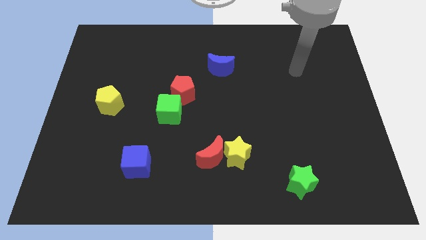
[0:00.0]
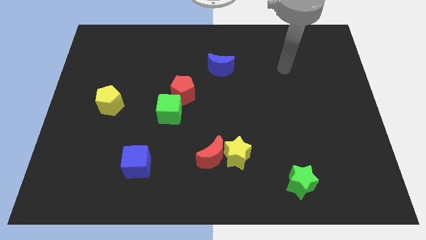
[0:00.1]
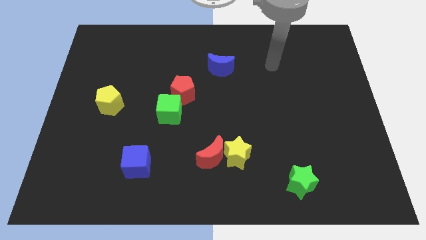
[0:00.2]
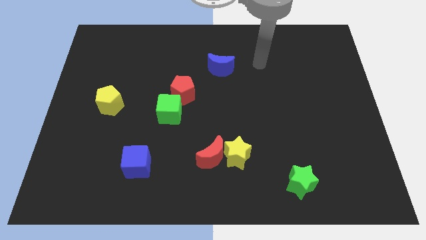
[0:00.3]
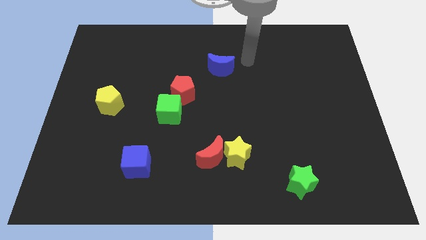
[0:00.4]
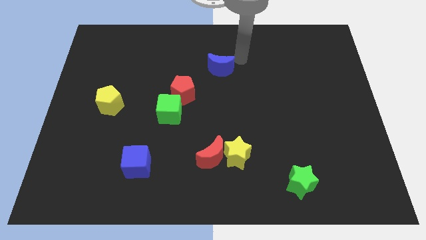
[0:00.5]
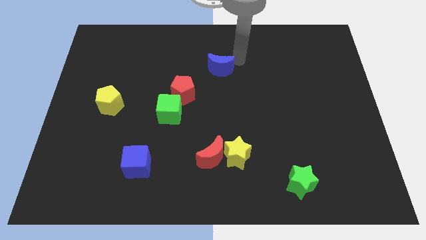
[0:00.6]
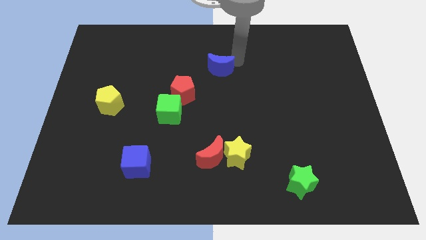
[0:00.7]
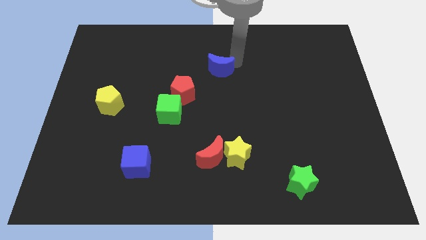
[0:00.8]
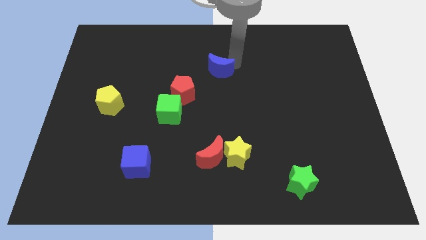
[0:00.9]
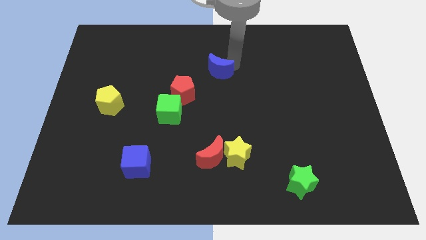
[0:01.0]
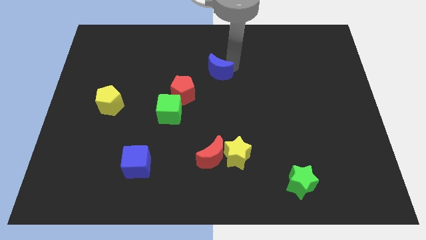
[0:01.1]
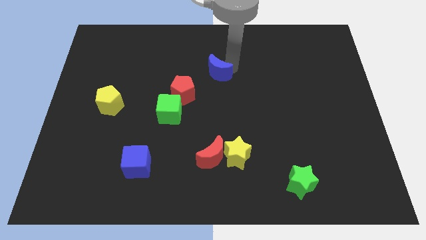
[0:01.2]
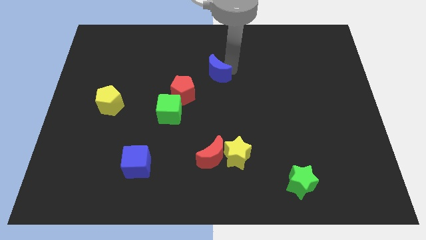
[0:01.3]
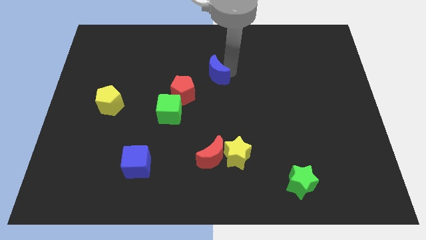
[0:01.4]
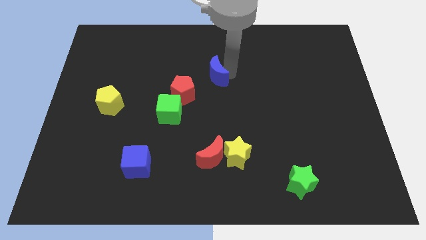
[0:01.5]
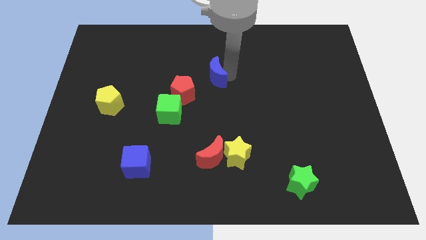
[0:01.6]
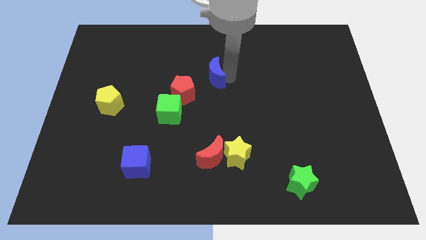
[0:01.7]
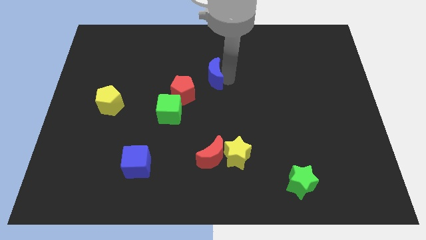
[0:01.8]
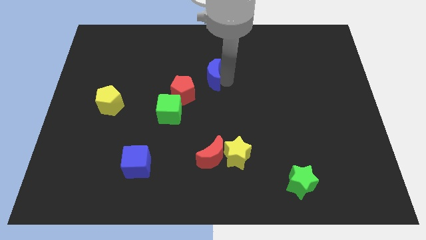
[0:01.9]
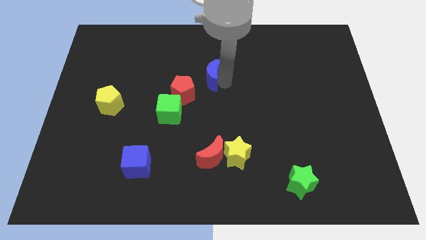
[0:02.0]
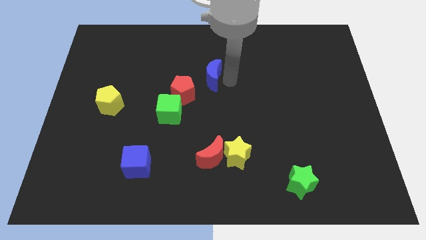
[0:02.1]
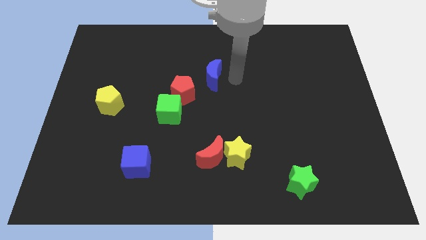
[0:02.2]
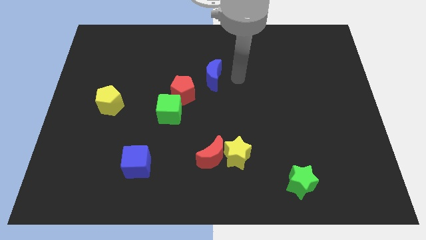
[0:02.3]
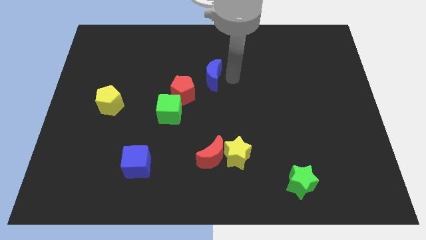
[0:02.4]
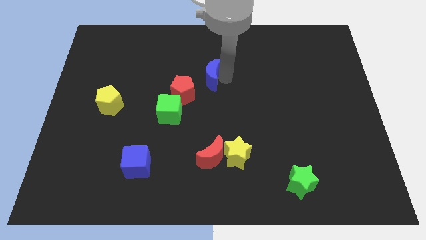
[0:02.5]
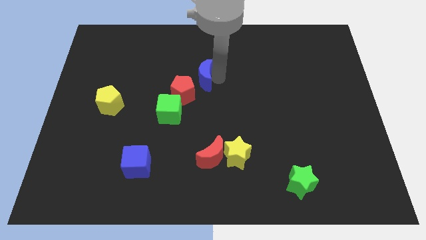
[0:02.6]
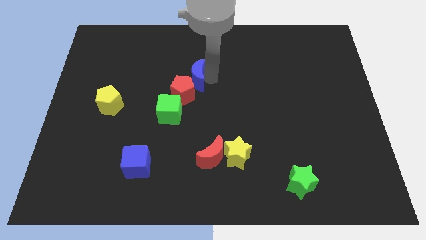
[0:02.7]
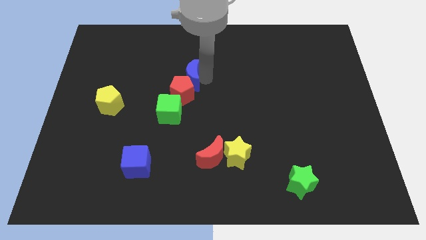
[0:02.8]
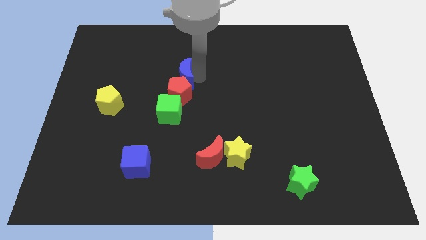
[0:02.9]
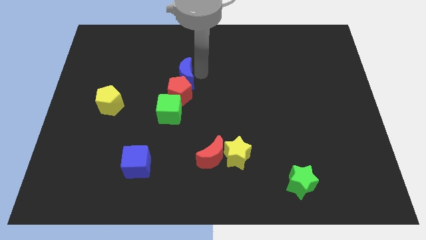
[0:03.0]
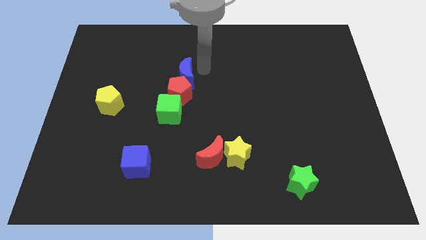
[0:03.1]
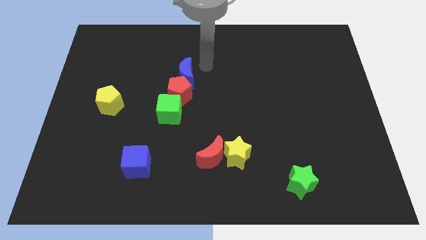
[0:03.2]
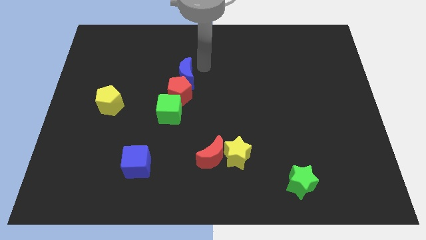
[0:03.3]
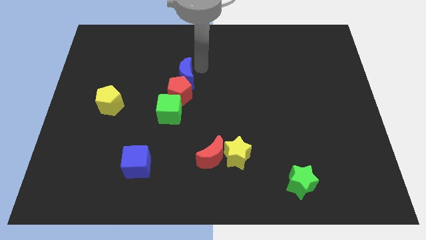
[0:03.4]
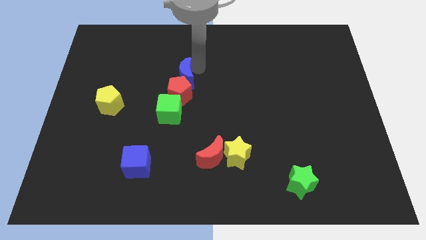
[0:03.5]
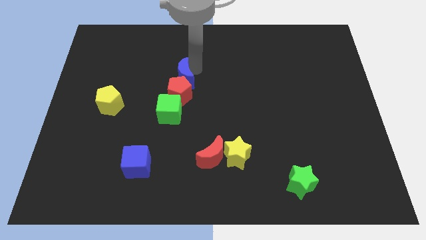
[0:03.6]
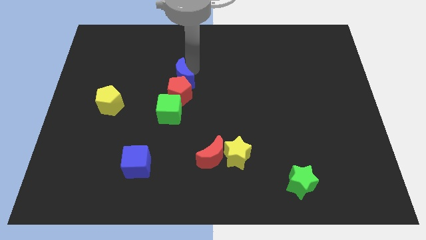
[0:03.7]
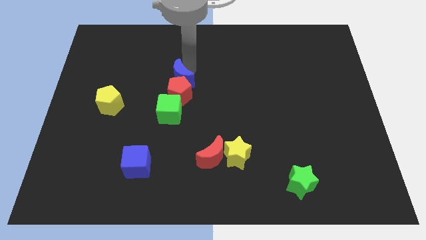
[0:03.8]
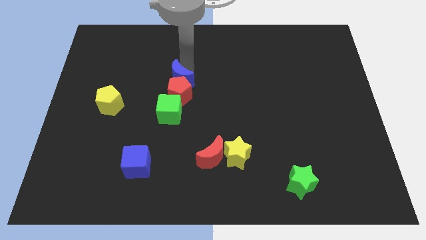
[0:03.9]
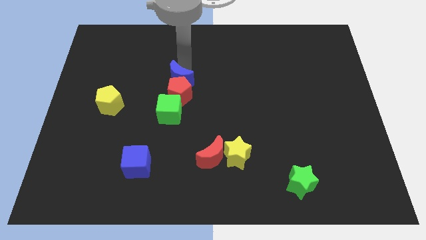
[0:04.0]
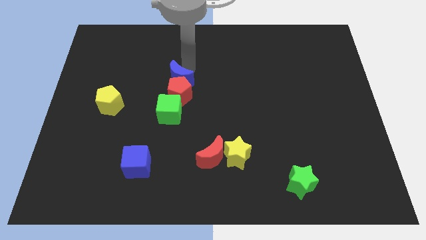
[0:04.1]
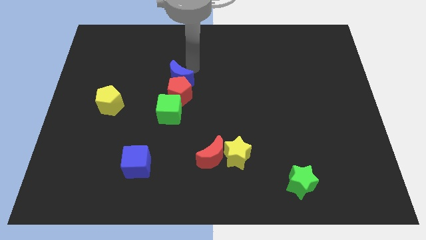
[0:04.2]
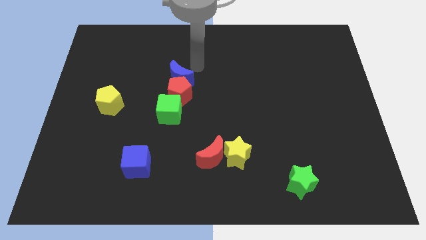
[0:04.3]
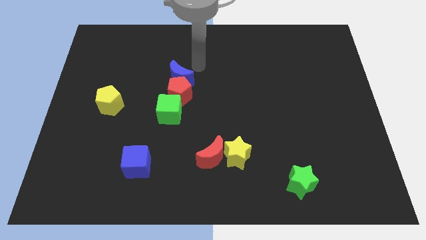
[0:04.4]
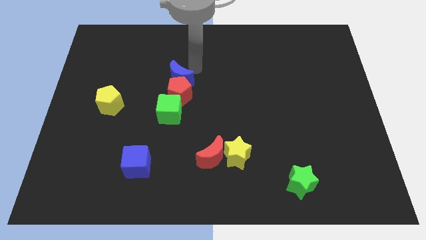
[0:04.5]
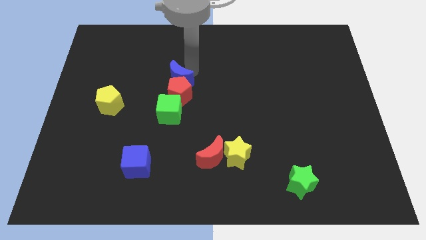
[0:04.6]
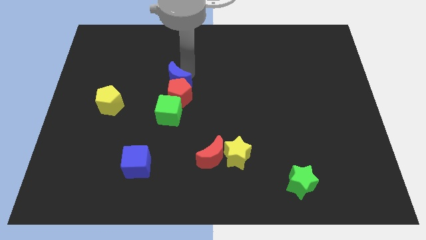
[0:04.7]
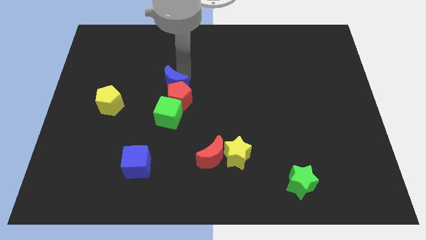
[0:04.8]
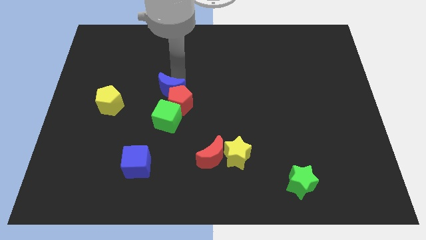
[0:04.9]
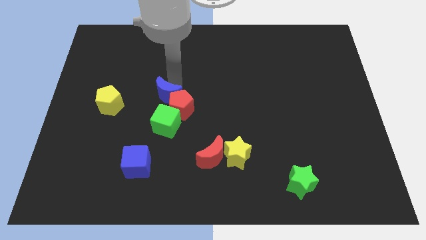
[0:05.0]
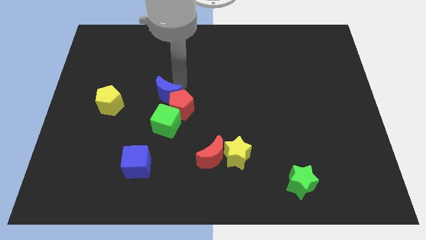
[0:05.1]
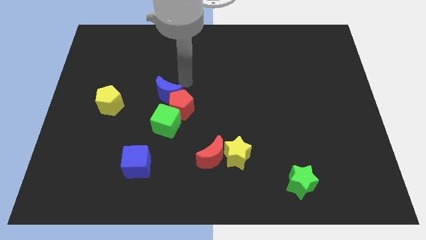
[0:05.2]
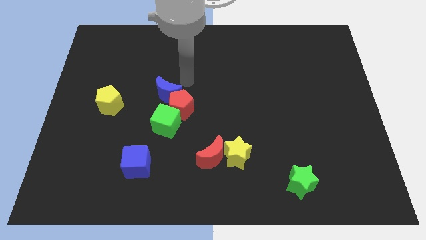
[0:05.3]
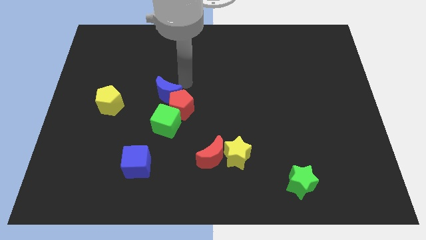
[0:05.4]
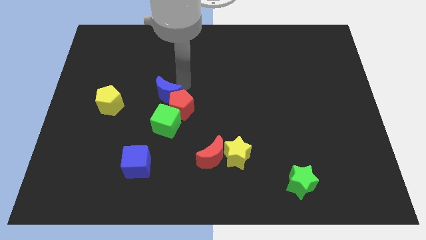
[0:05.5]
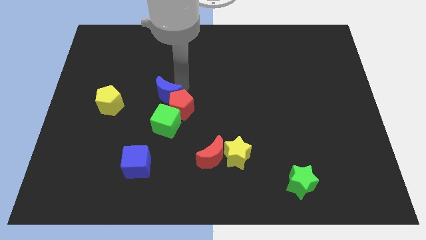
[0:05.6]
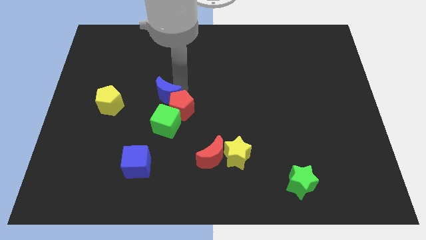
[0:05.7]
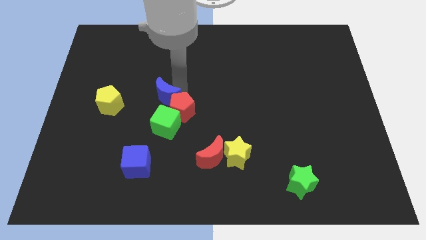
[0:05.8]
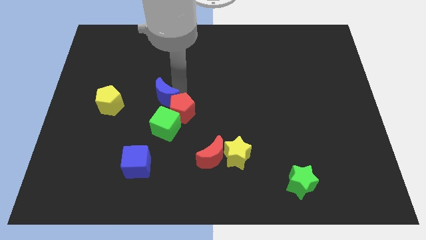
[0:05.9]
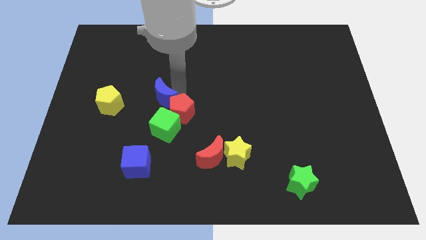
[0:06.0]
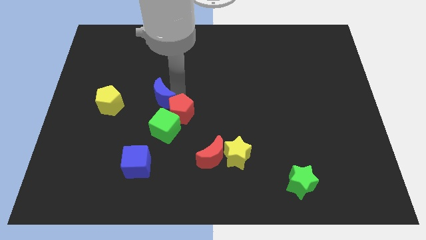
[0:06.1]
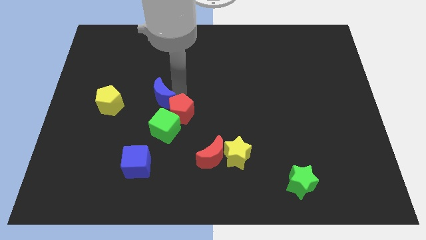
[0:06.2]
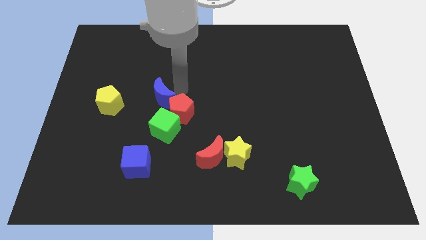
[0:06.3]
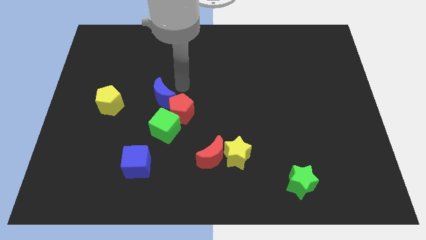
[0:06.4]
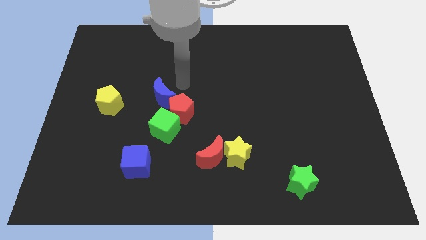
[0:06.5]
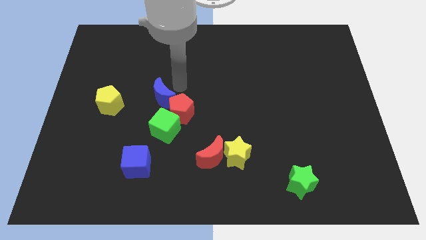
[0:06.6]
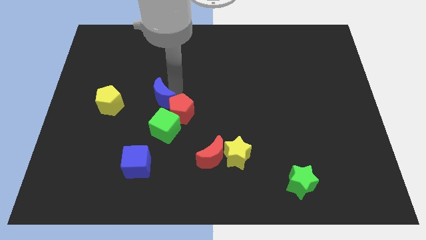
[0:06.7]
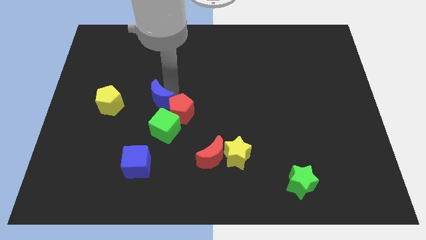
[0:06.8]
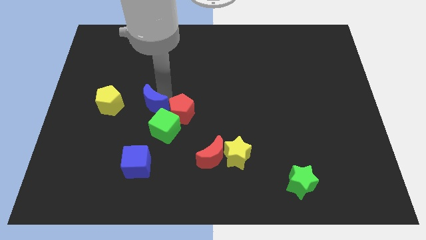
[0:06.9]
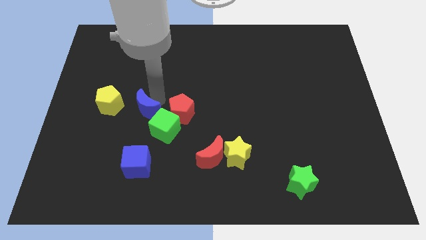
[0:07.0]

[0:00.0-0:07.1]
move the blue moon down and to the left

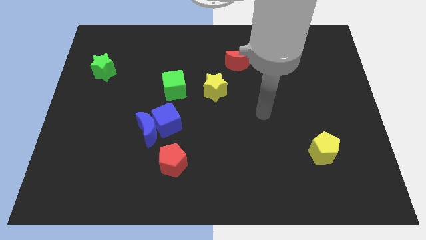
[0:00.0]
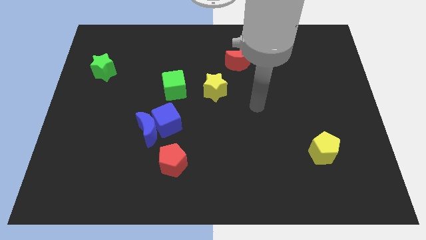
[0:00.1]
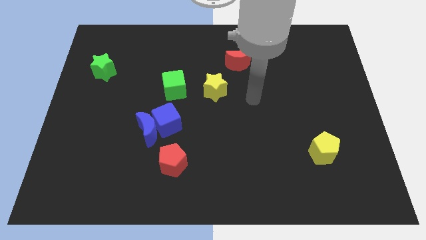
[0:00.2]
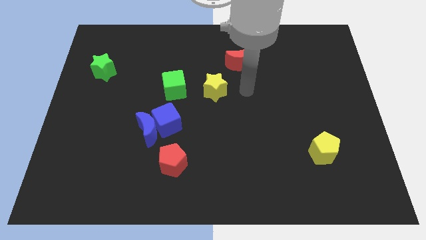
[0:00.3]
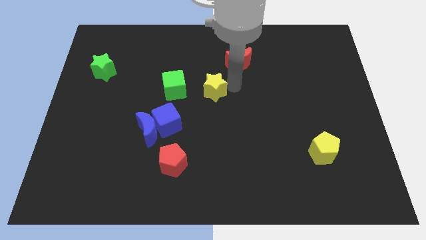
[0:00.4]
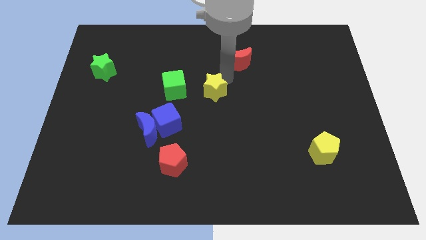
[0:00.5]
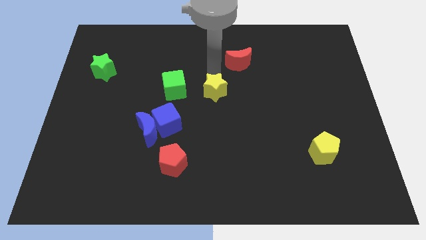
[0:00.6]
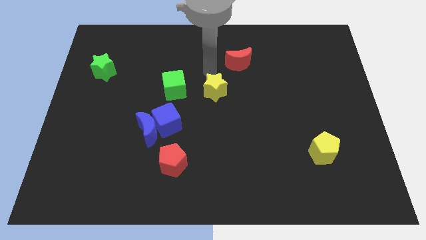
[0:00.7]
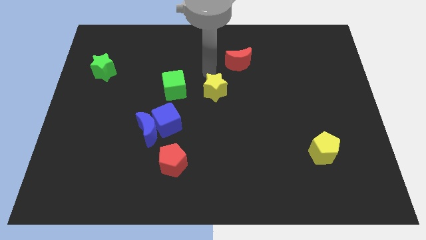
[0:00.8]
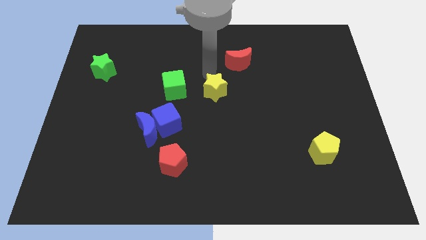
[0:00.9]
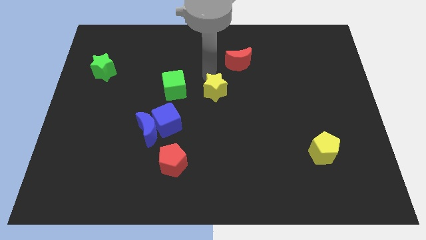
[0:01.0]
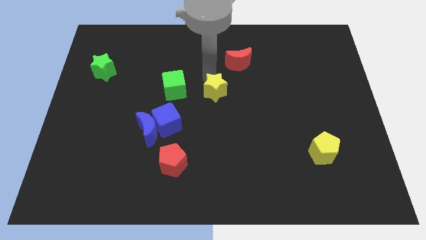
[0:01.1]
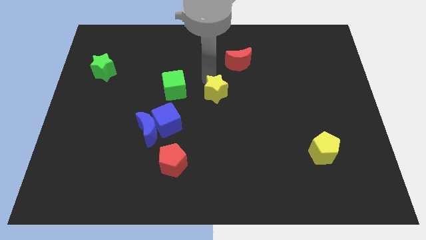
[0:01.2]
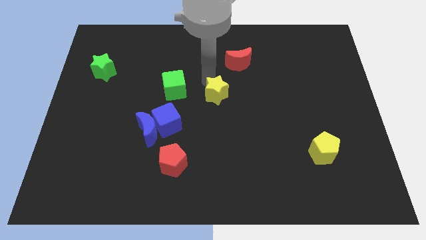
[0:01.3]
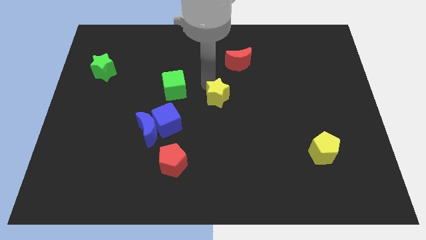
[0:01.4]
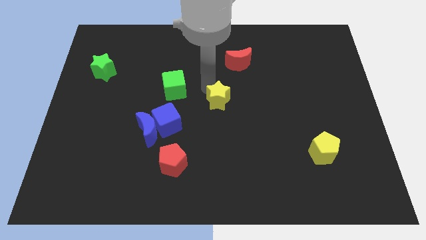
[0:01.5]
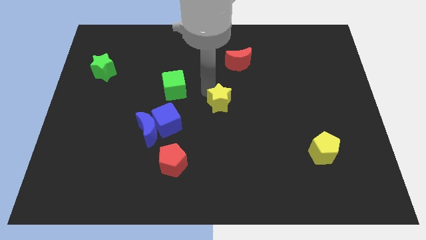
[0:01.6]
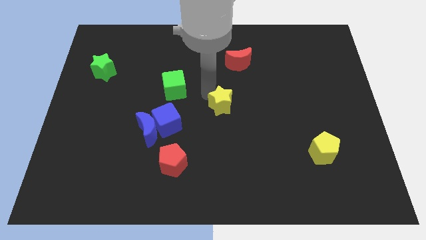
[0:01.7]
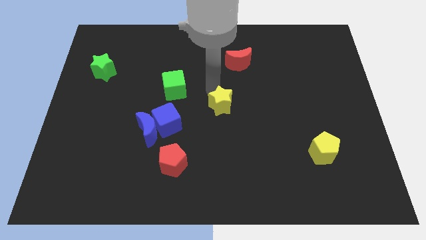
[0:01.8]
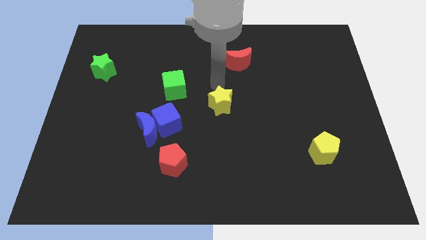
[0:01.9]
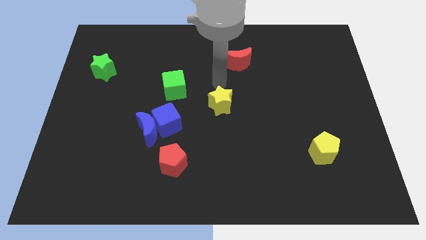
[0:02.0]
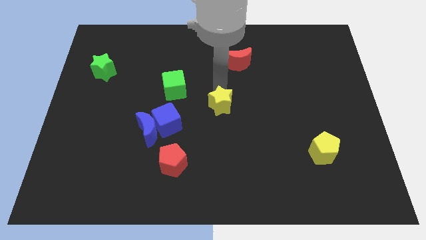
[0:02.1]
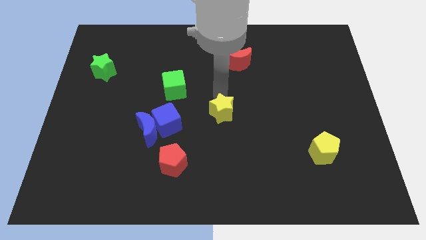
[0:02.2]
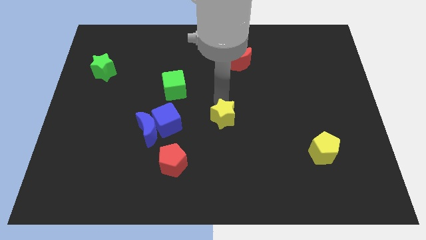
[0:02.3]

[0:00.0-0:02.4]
slightly slide the yellow star downwards
